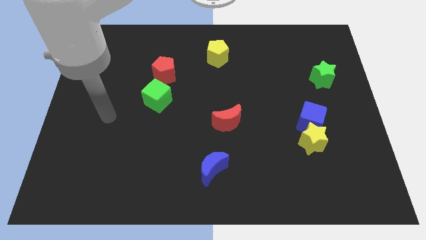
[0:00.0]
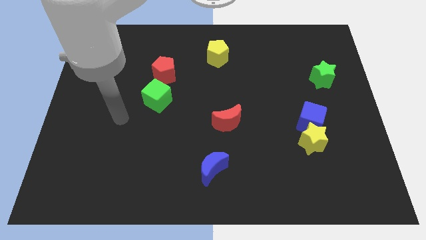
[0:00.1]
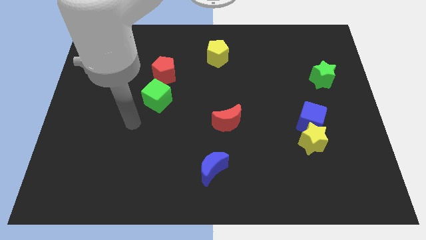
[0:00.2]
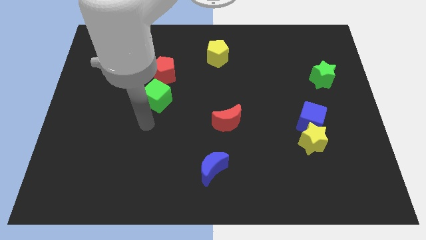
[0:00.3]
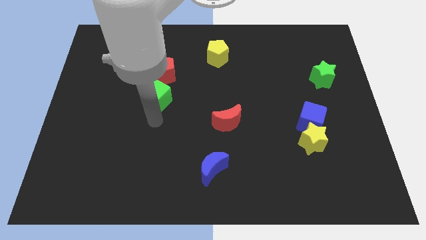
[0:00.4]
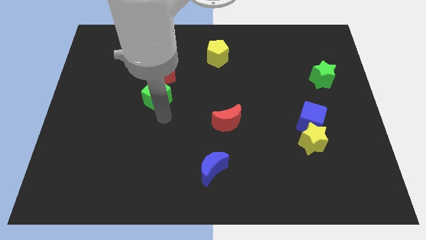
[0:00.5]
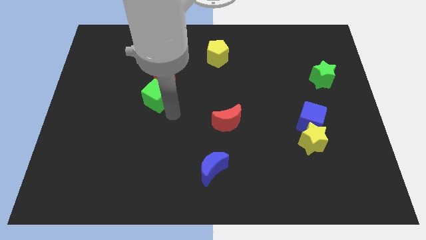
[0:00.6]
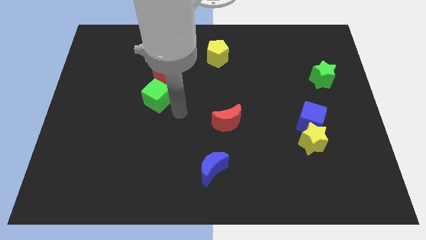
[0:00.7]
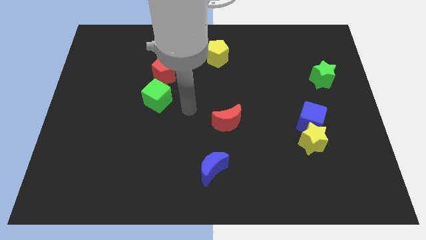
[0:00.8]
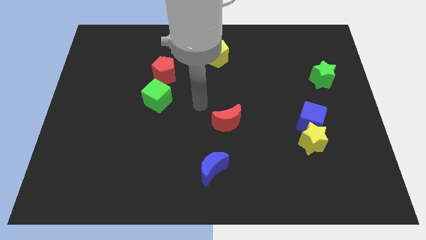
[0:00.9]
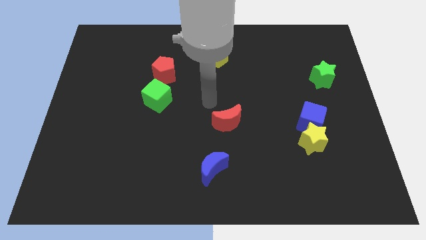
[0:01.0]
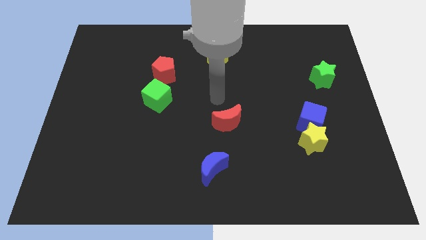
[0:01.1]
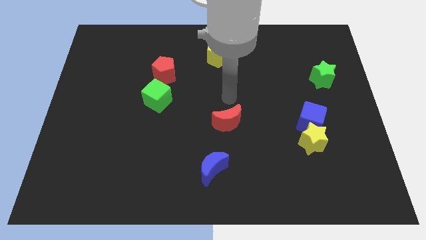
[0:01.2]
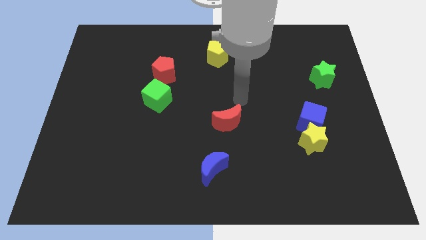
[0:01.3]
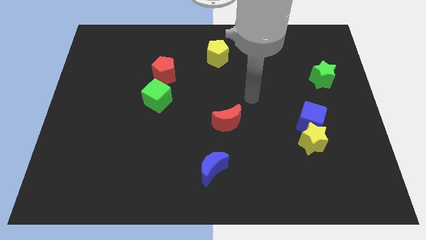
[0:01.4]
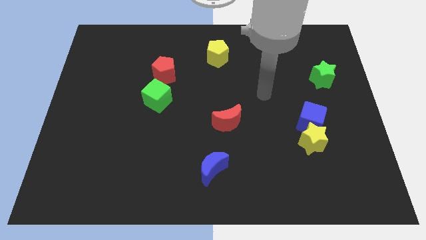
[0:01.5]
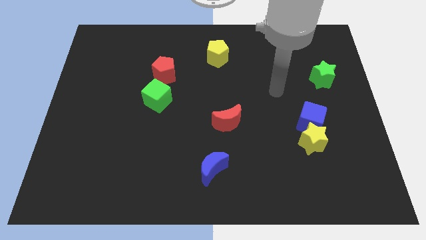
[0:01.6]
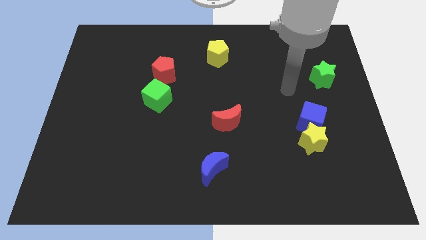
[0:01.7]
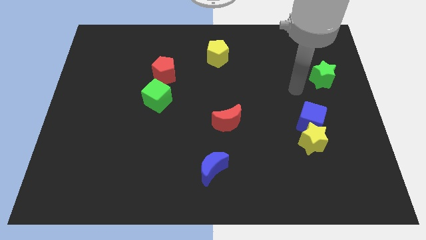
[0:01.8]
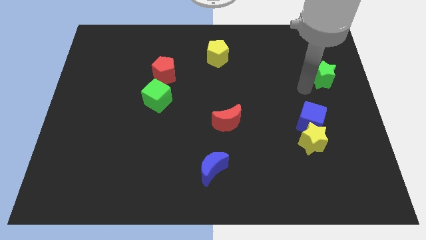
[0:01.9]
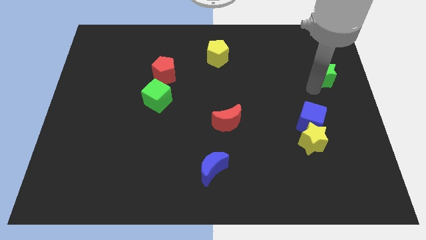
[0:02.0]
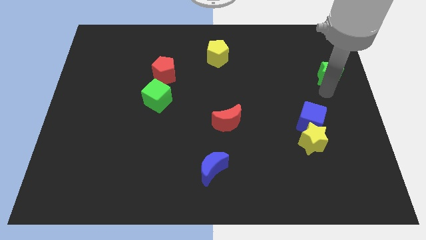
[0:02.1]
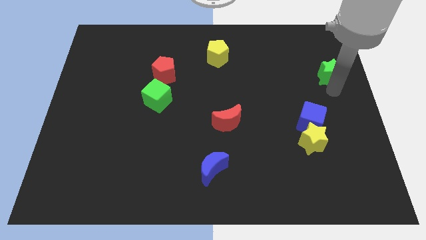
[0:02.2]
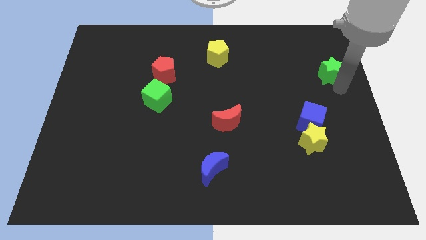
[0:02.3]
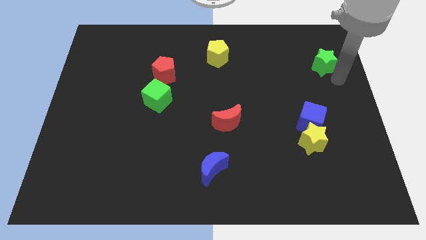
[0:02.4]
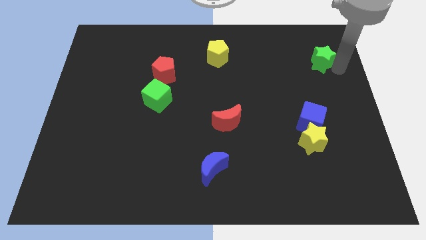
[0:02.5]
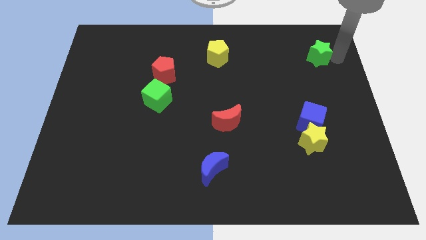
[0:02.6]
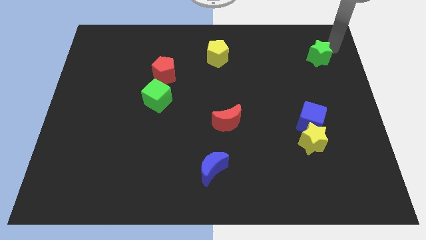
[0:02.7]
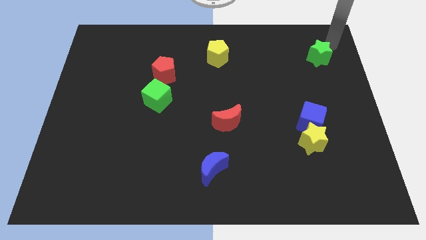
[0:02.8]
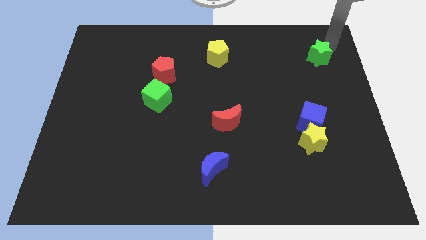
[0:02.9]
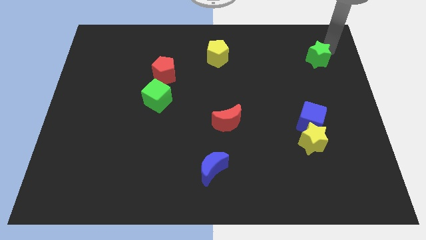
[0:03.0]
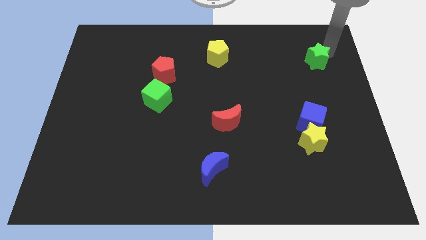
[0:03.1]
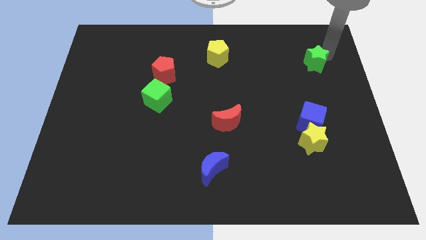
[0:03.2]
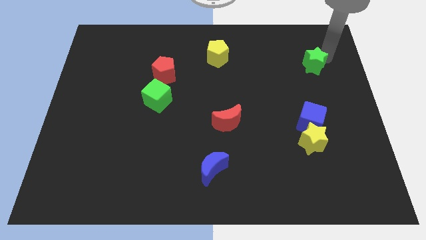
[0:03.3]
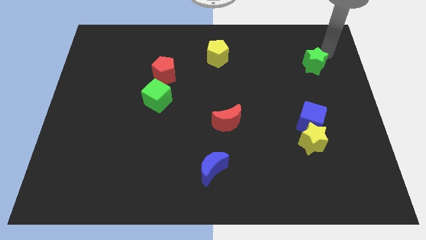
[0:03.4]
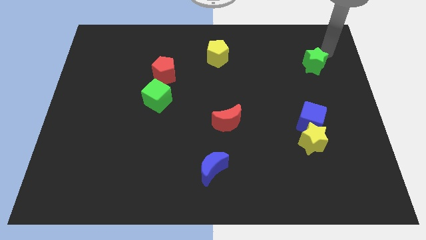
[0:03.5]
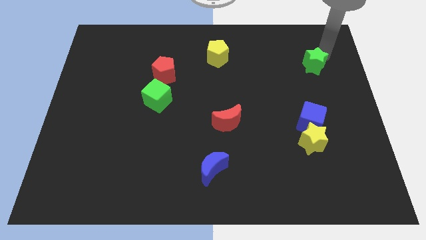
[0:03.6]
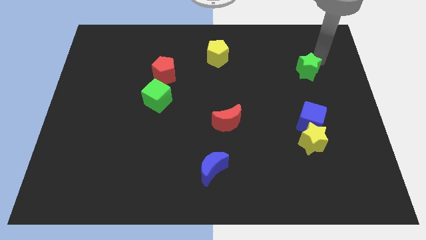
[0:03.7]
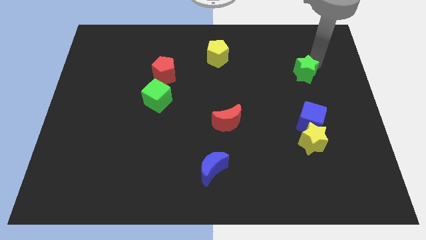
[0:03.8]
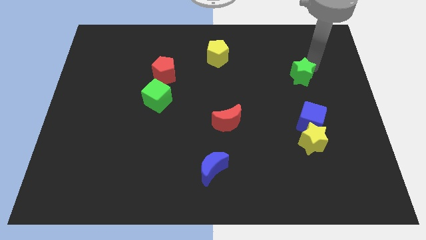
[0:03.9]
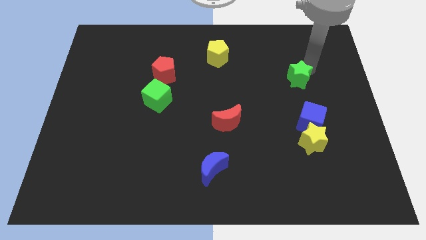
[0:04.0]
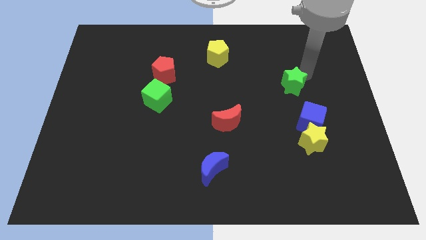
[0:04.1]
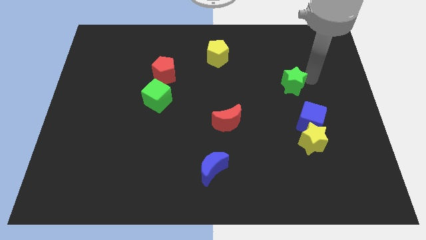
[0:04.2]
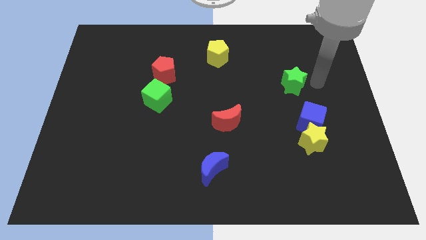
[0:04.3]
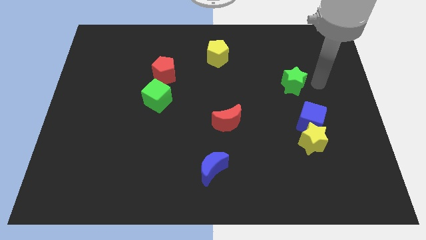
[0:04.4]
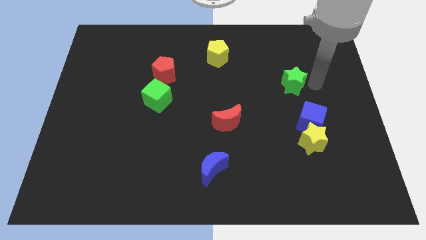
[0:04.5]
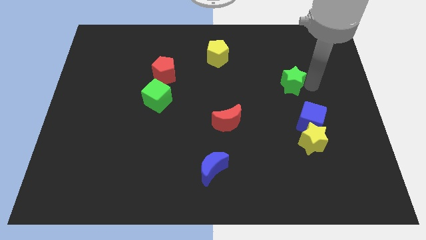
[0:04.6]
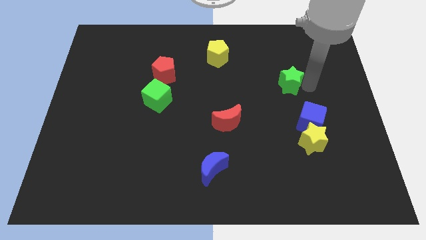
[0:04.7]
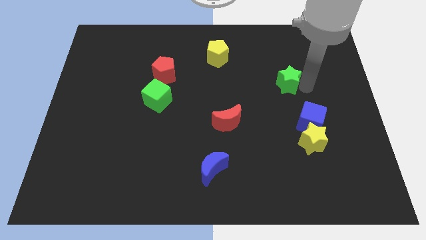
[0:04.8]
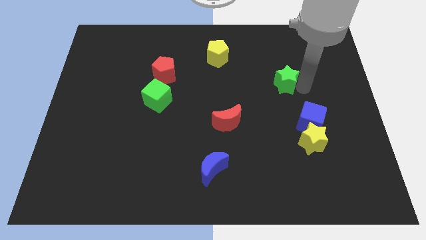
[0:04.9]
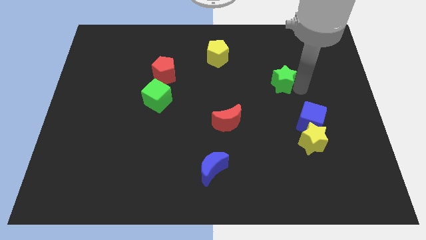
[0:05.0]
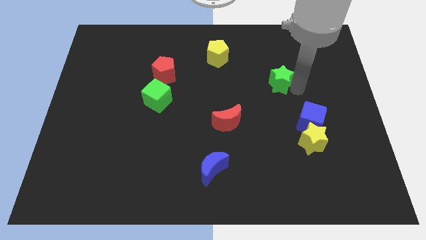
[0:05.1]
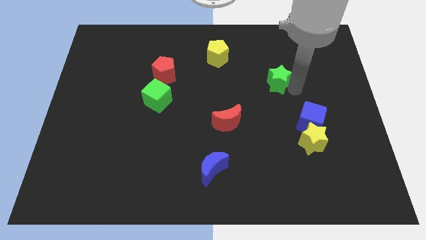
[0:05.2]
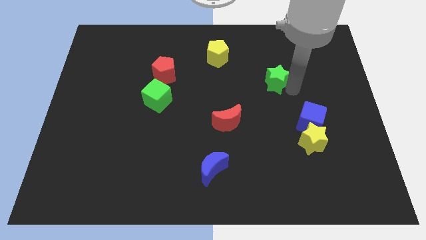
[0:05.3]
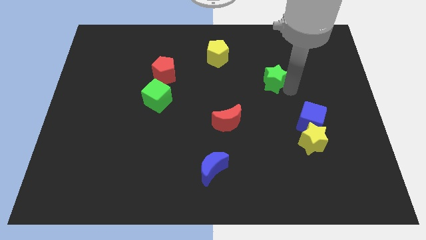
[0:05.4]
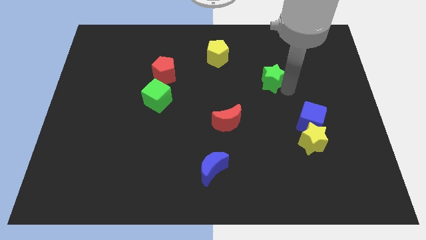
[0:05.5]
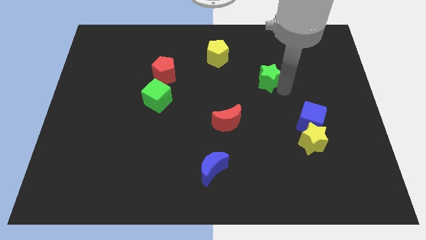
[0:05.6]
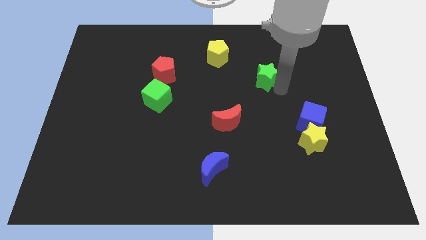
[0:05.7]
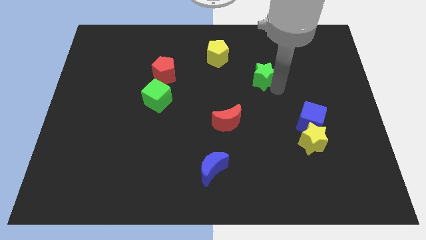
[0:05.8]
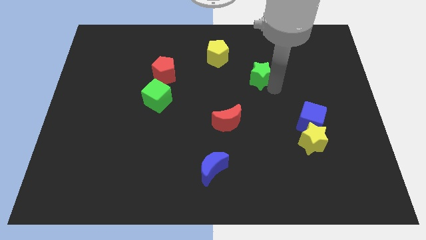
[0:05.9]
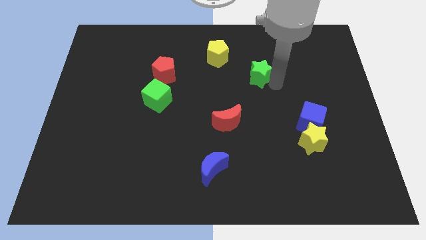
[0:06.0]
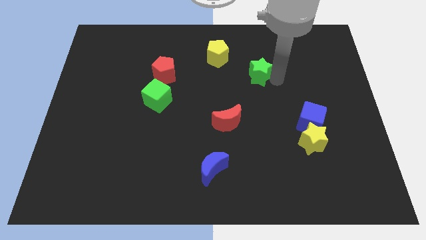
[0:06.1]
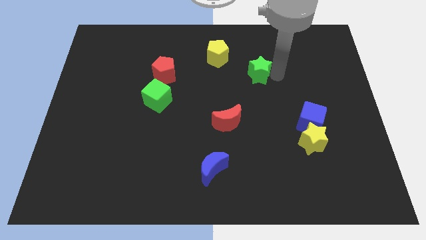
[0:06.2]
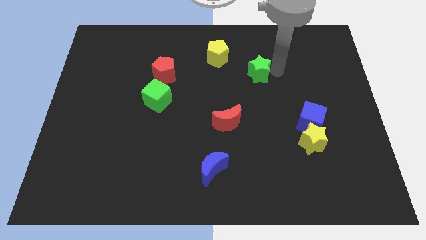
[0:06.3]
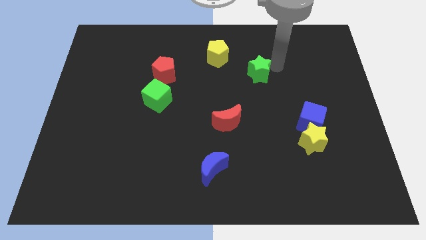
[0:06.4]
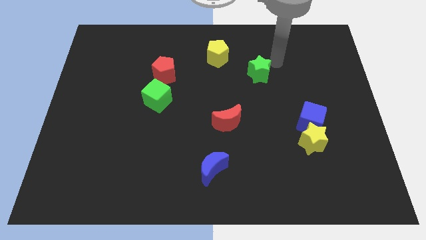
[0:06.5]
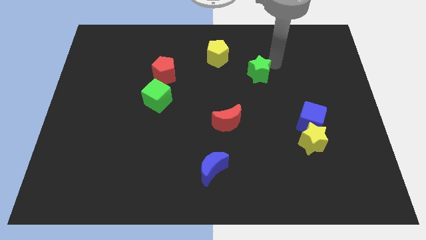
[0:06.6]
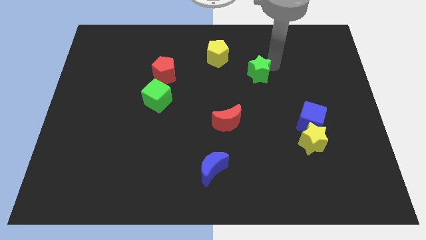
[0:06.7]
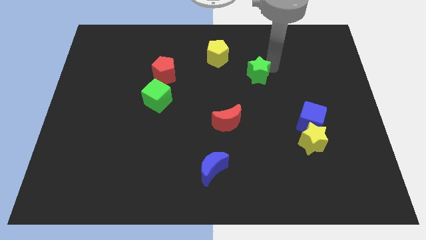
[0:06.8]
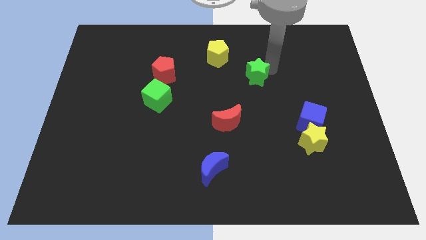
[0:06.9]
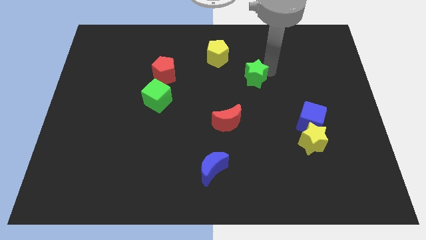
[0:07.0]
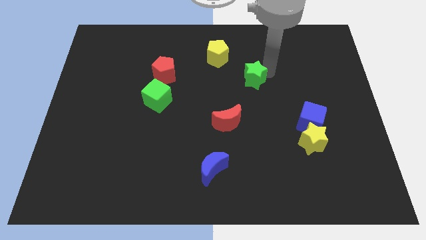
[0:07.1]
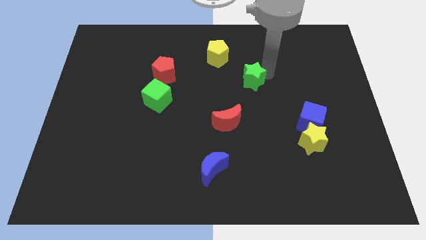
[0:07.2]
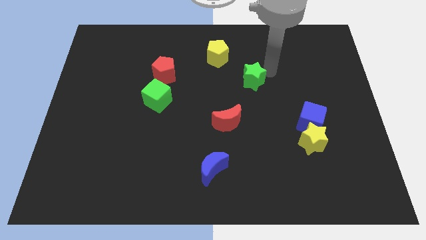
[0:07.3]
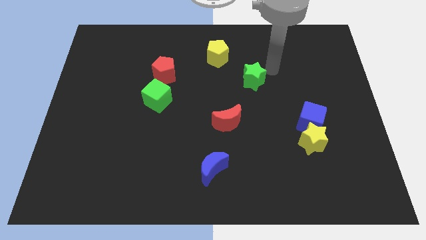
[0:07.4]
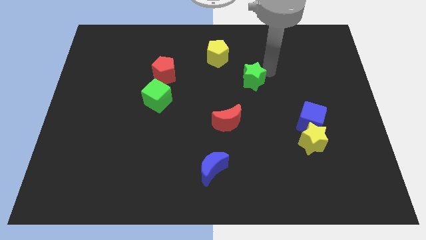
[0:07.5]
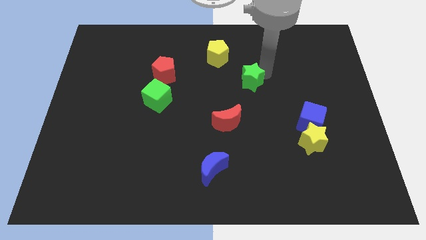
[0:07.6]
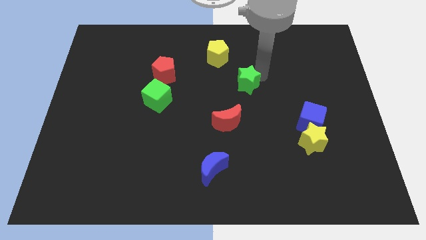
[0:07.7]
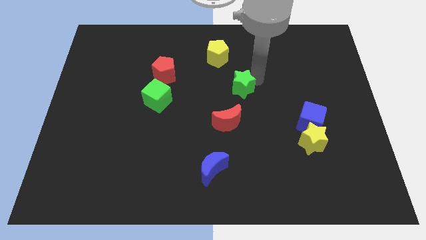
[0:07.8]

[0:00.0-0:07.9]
push the green star to the left
